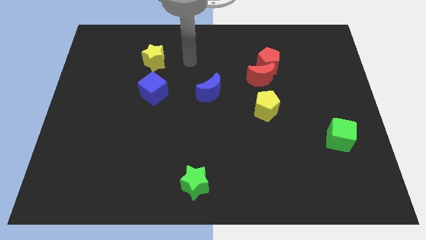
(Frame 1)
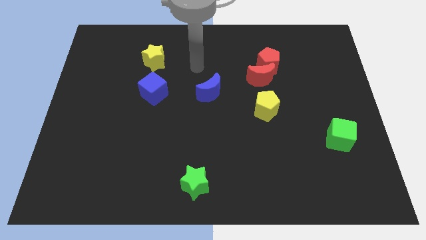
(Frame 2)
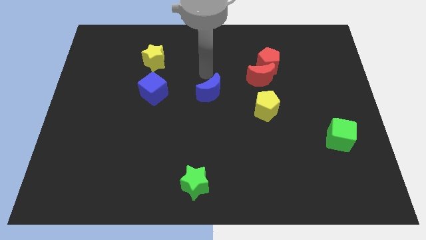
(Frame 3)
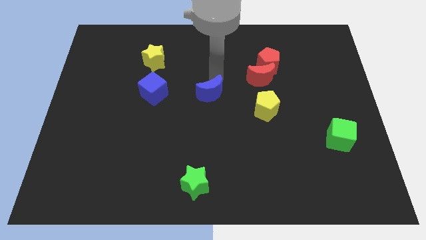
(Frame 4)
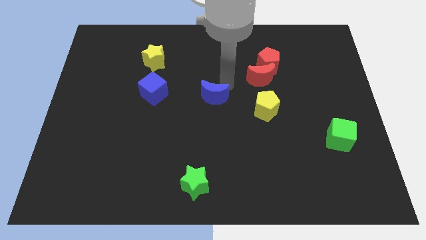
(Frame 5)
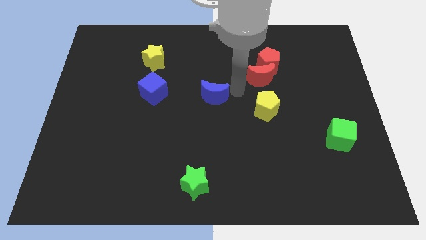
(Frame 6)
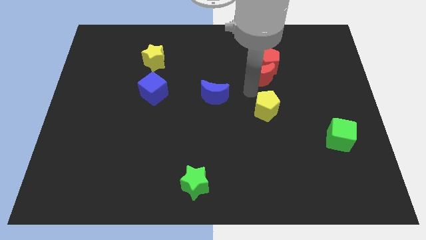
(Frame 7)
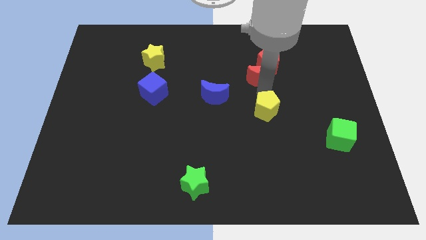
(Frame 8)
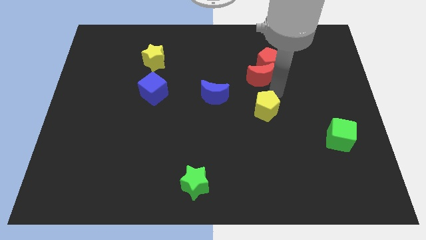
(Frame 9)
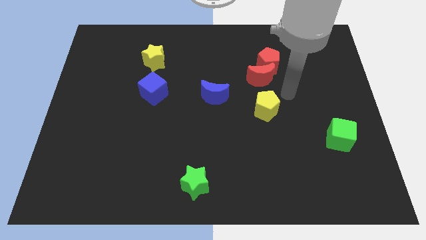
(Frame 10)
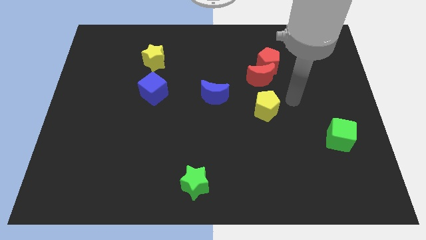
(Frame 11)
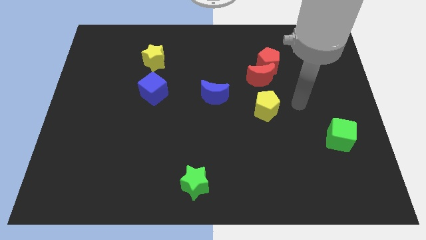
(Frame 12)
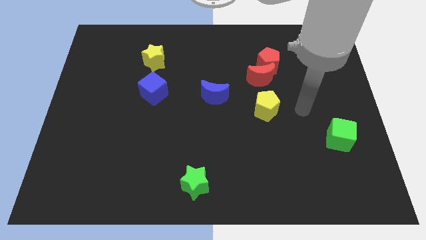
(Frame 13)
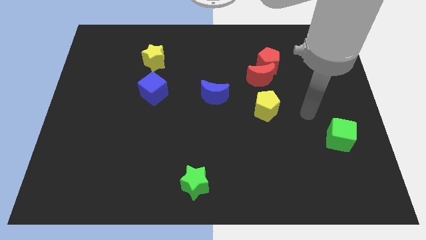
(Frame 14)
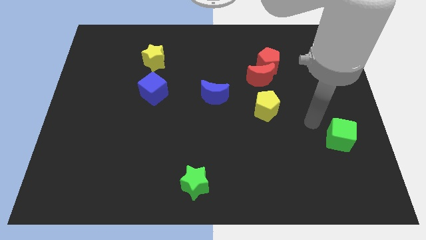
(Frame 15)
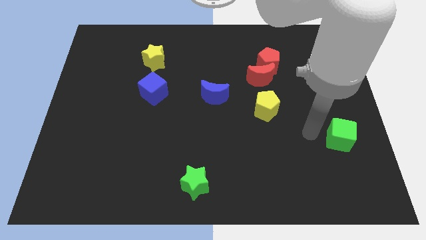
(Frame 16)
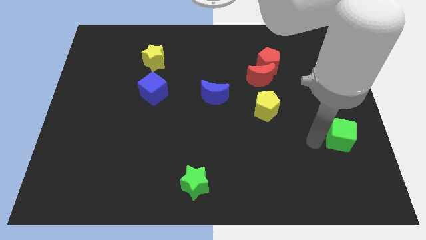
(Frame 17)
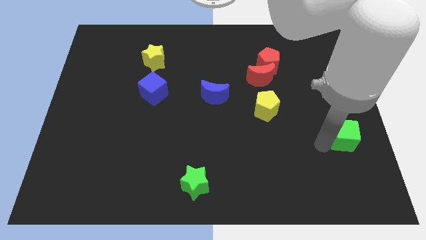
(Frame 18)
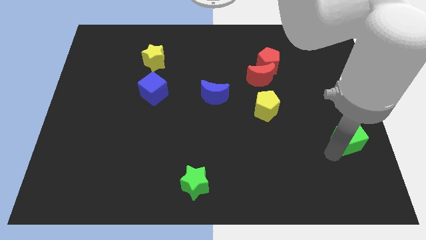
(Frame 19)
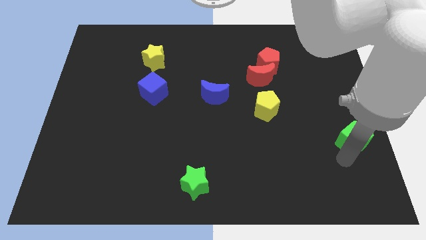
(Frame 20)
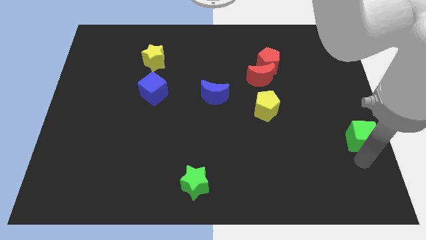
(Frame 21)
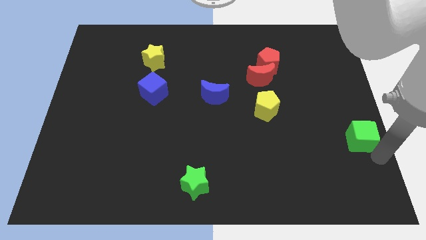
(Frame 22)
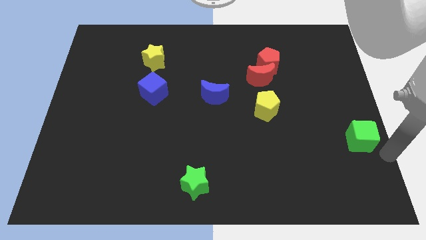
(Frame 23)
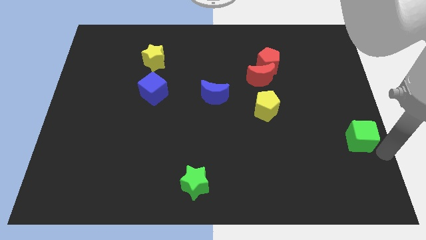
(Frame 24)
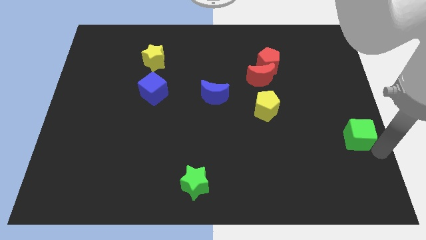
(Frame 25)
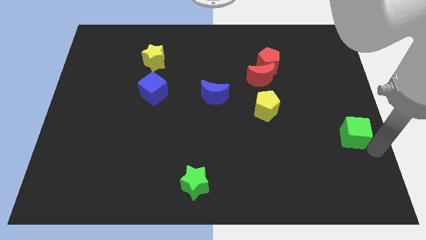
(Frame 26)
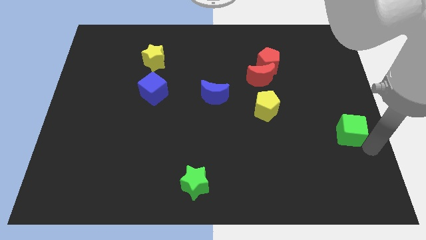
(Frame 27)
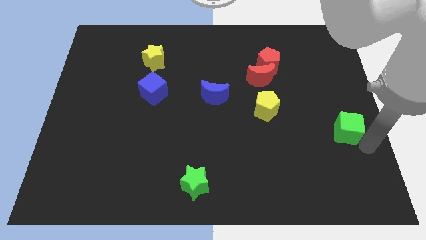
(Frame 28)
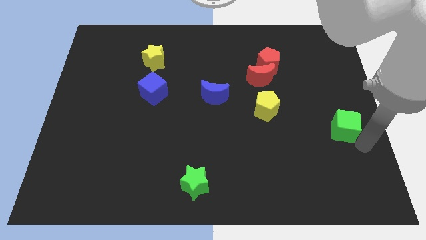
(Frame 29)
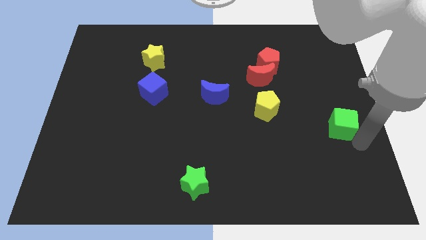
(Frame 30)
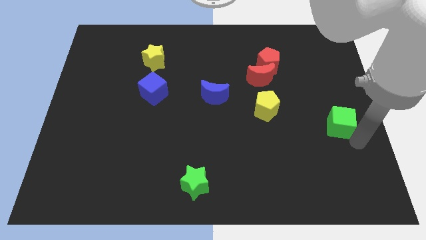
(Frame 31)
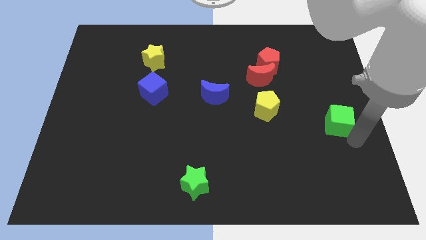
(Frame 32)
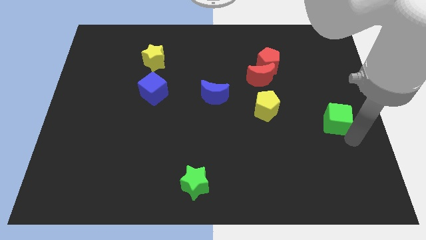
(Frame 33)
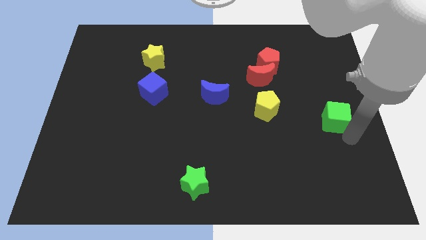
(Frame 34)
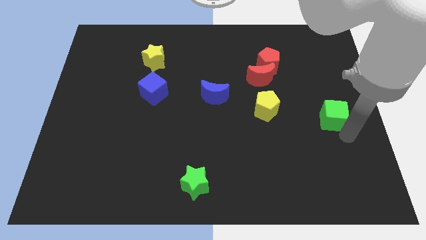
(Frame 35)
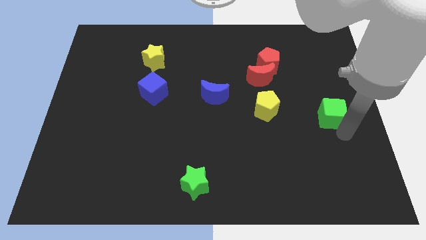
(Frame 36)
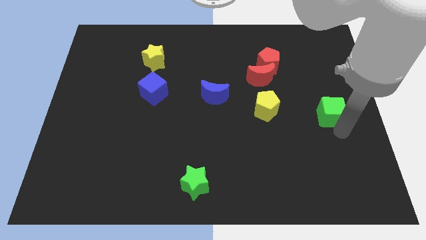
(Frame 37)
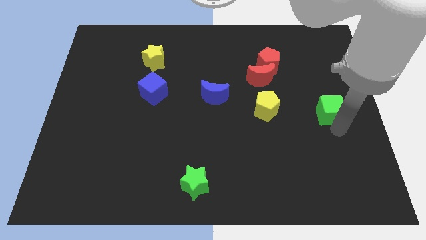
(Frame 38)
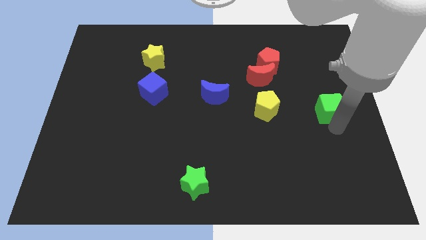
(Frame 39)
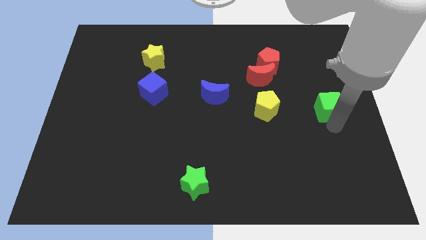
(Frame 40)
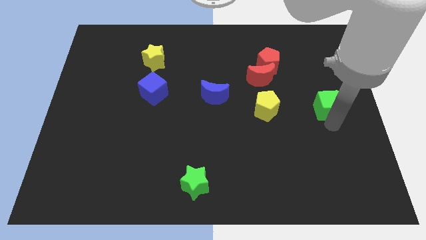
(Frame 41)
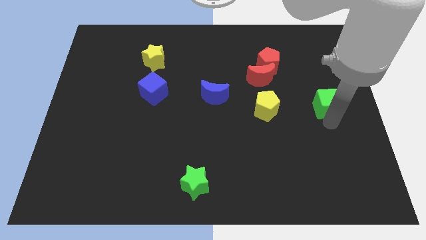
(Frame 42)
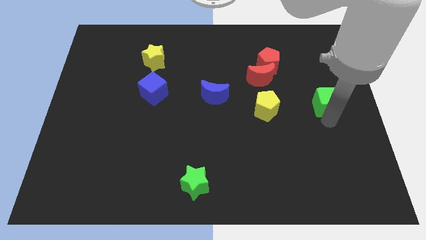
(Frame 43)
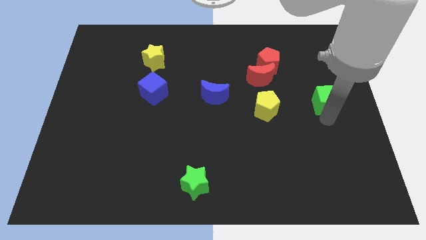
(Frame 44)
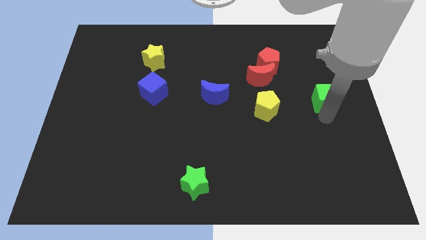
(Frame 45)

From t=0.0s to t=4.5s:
slightly push the green cube diagonally upwards and to the left

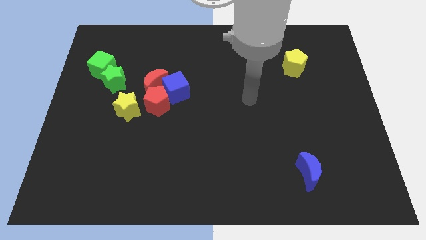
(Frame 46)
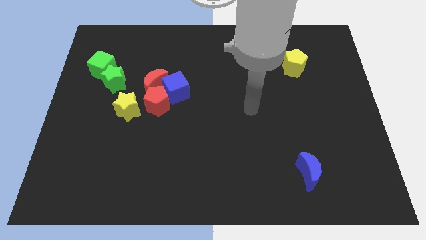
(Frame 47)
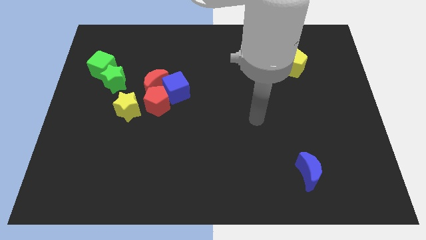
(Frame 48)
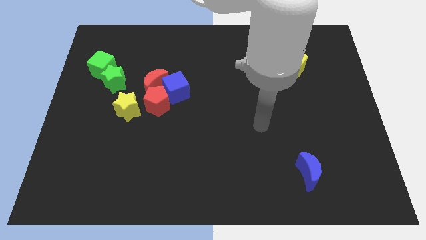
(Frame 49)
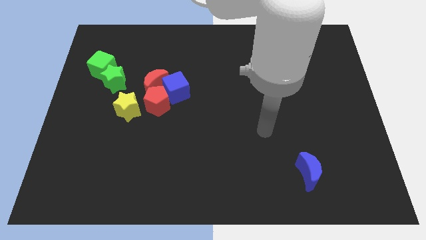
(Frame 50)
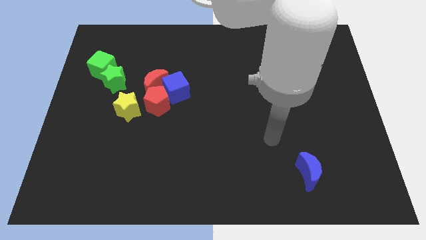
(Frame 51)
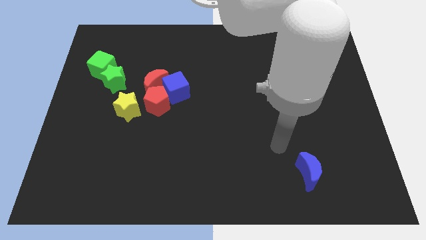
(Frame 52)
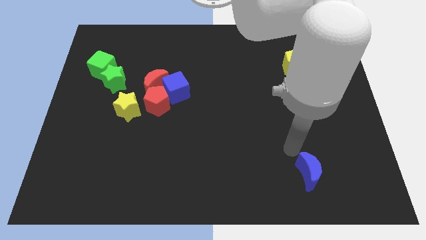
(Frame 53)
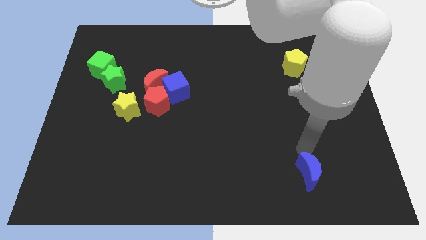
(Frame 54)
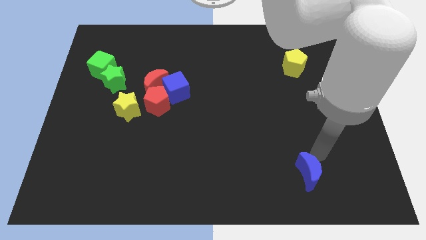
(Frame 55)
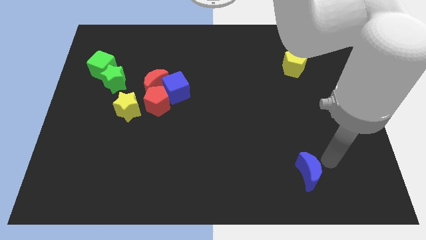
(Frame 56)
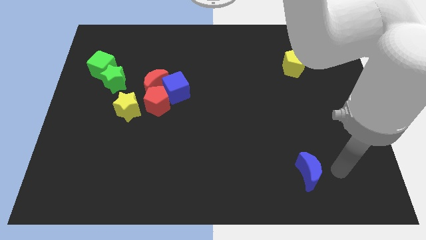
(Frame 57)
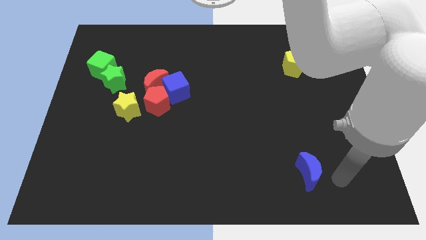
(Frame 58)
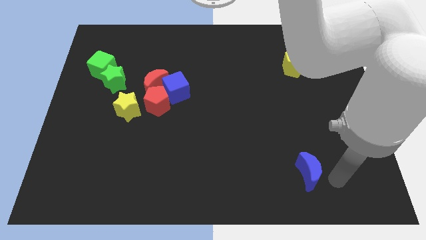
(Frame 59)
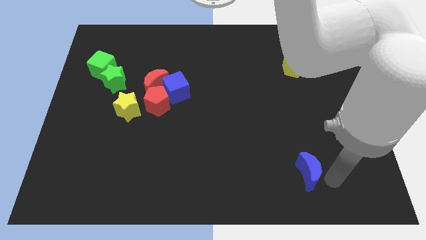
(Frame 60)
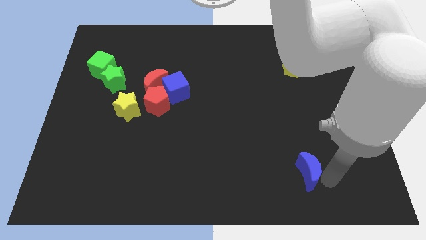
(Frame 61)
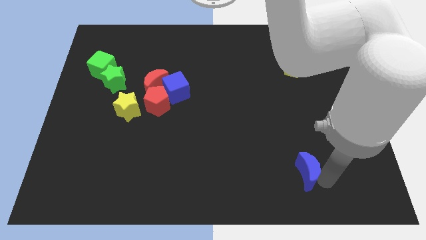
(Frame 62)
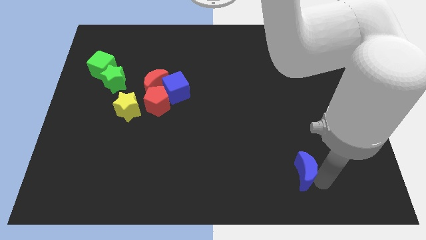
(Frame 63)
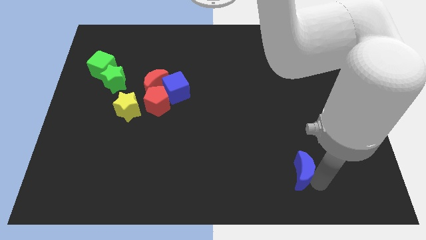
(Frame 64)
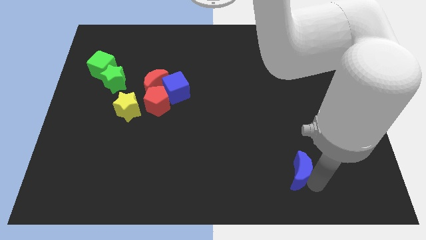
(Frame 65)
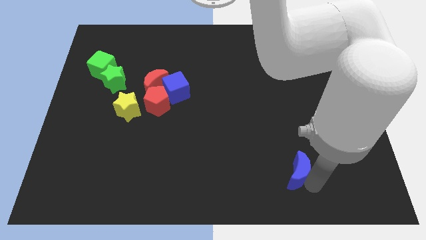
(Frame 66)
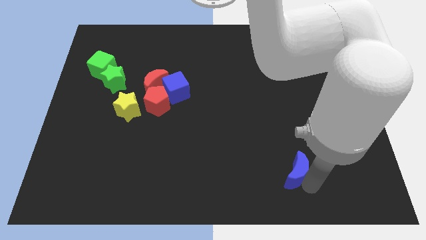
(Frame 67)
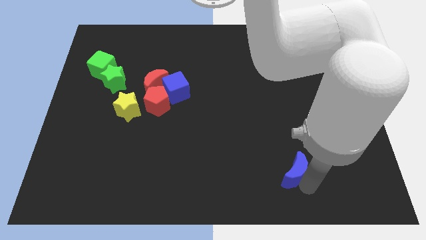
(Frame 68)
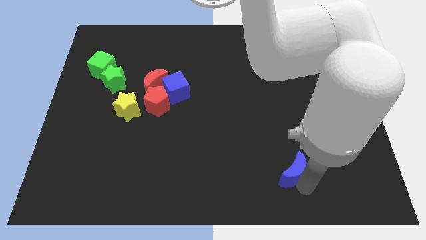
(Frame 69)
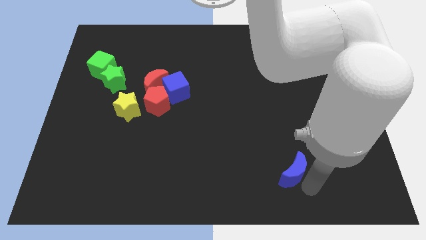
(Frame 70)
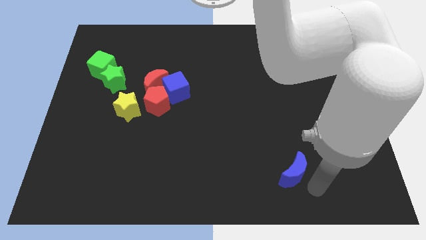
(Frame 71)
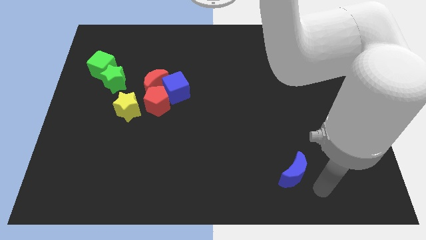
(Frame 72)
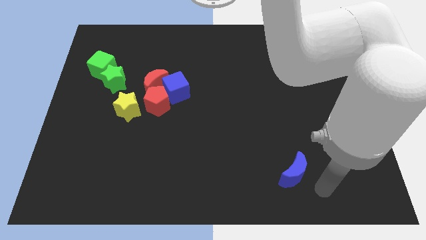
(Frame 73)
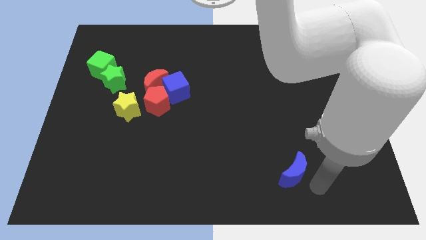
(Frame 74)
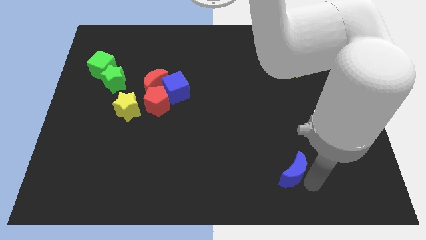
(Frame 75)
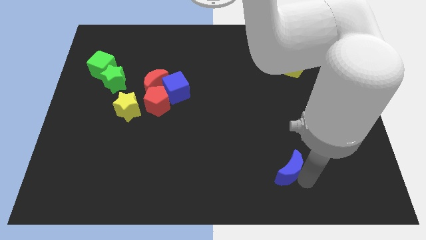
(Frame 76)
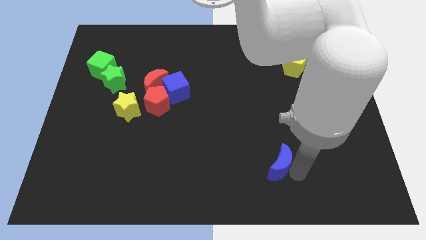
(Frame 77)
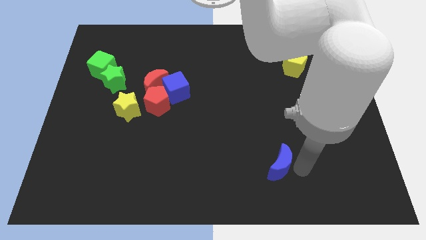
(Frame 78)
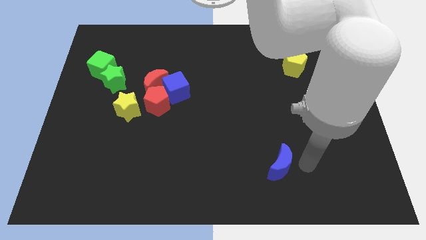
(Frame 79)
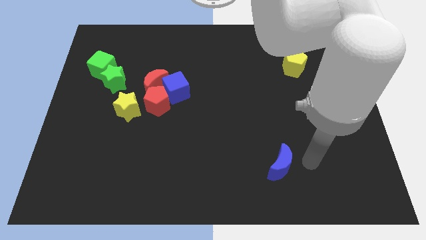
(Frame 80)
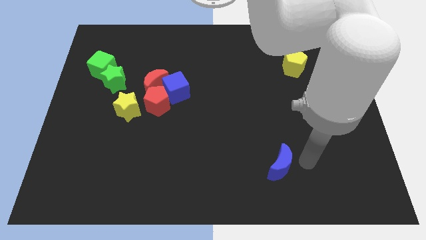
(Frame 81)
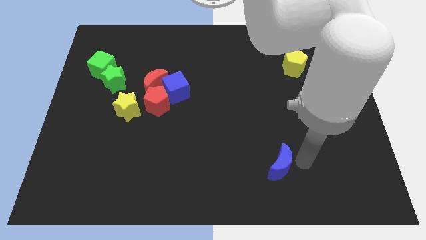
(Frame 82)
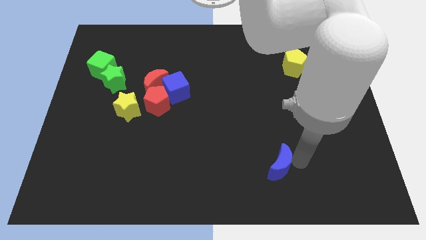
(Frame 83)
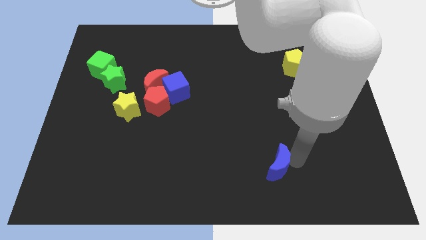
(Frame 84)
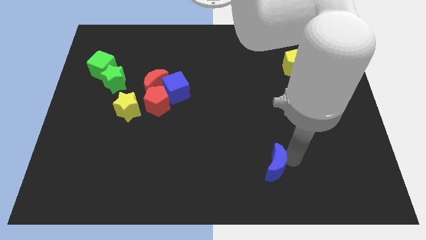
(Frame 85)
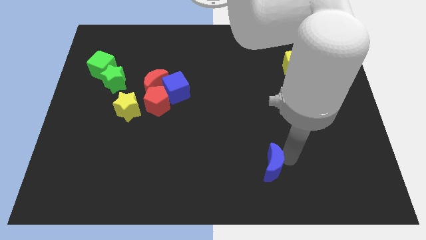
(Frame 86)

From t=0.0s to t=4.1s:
push the blue moon a little left
